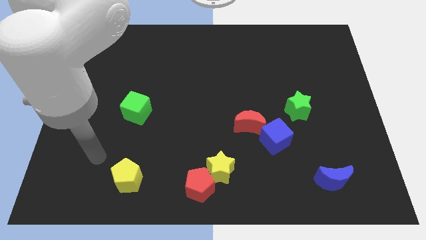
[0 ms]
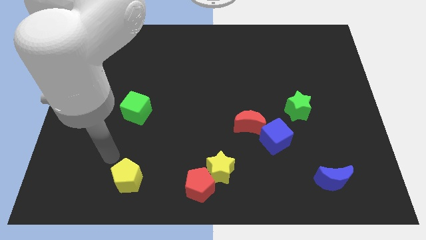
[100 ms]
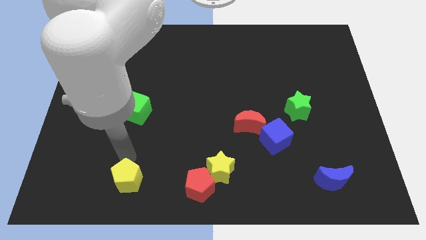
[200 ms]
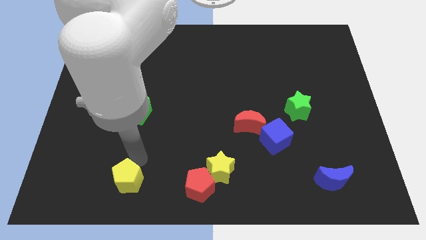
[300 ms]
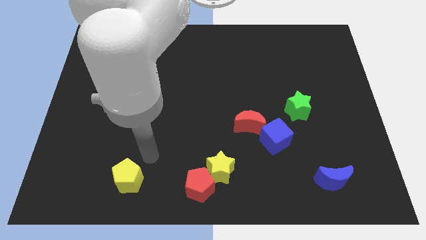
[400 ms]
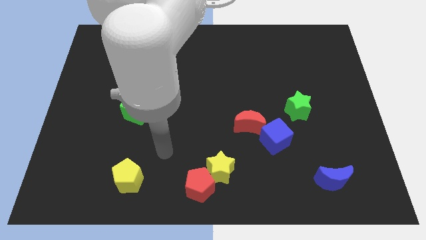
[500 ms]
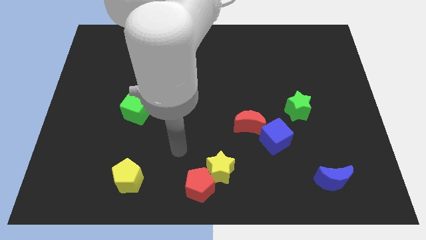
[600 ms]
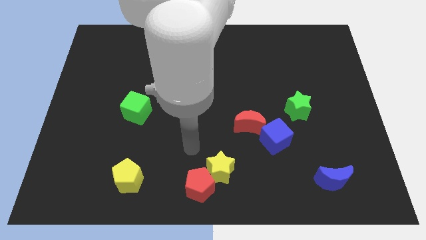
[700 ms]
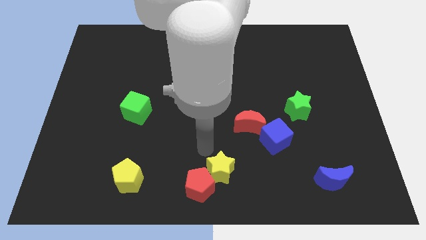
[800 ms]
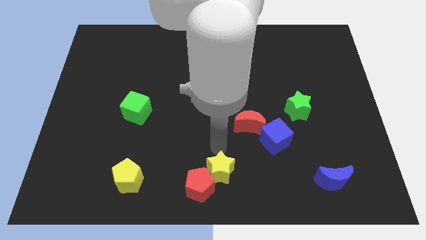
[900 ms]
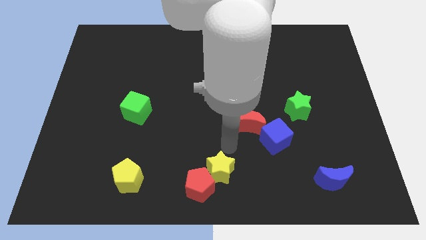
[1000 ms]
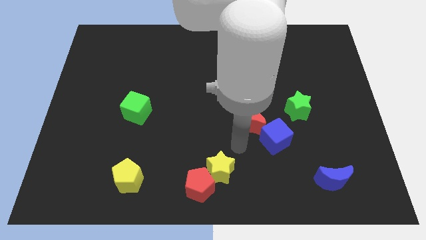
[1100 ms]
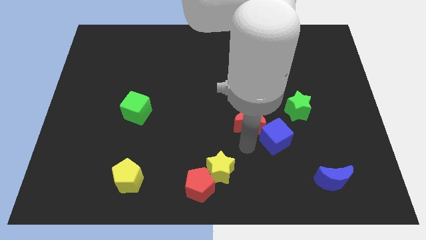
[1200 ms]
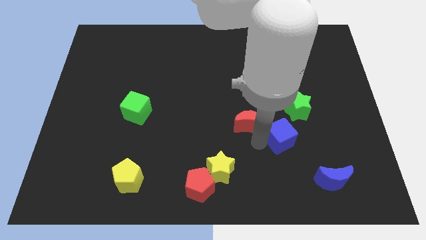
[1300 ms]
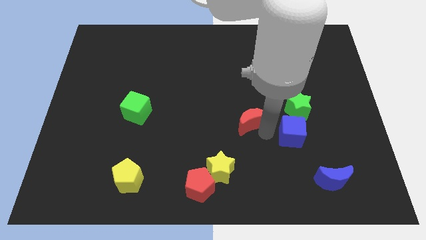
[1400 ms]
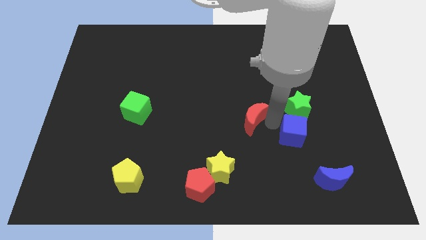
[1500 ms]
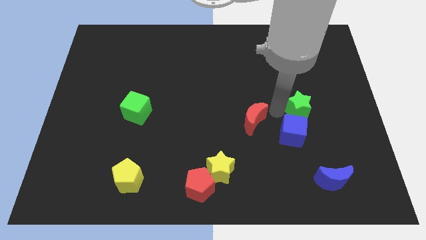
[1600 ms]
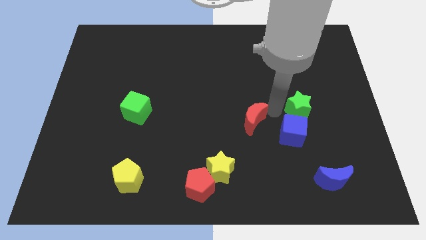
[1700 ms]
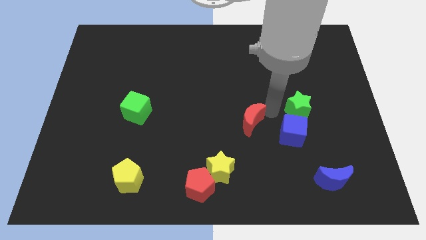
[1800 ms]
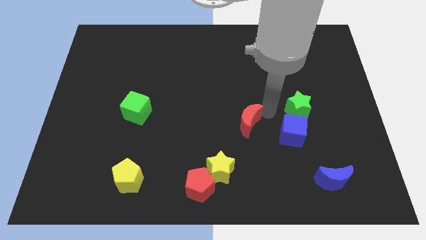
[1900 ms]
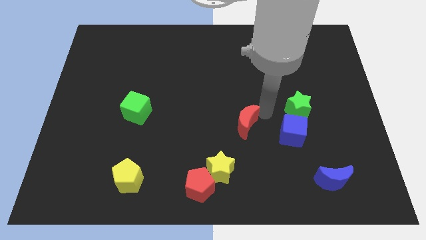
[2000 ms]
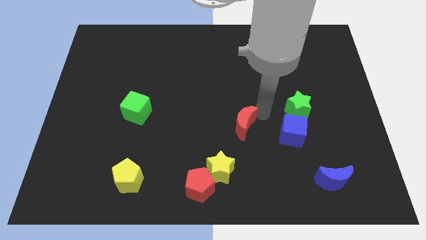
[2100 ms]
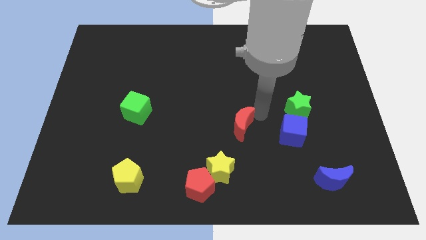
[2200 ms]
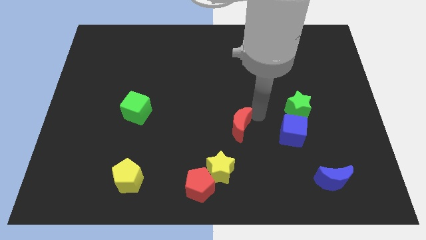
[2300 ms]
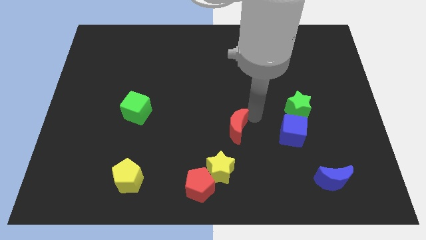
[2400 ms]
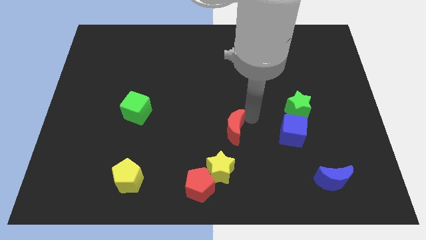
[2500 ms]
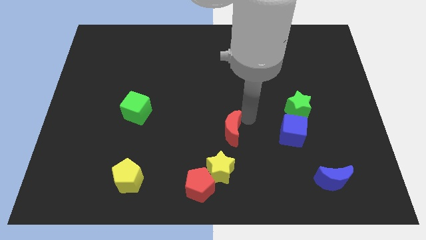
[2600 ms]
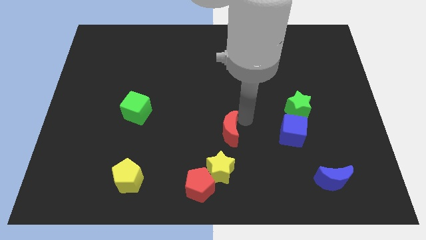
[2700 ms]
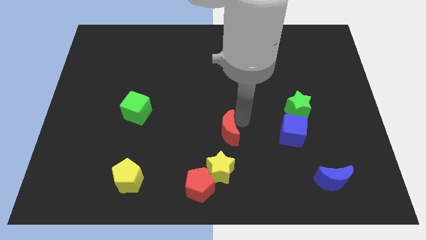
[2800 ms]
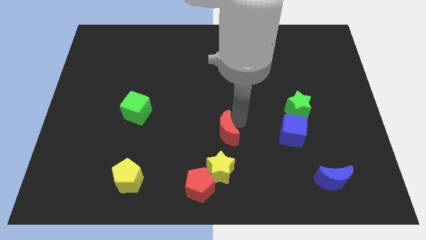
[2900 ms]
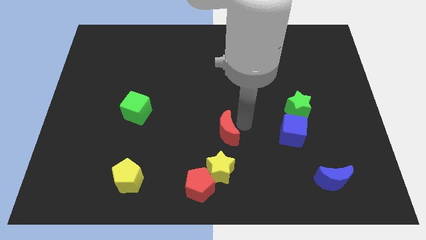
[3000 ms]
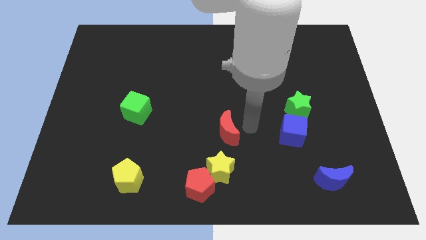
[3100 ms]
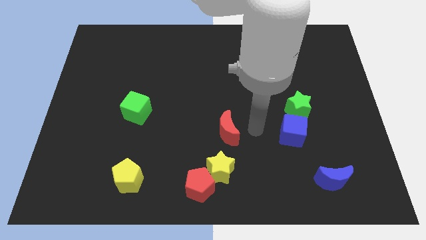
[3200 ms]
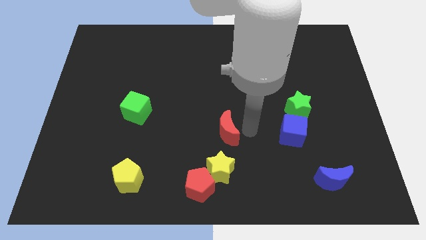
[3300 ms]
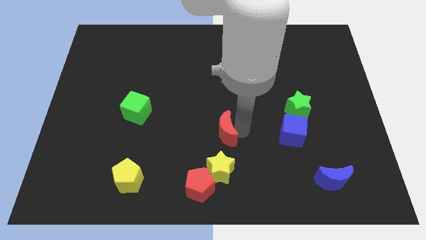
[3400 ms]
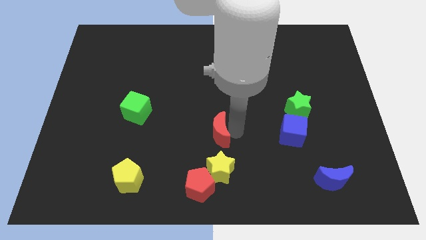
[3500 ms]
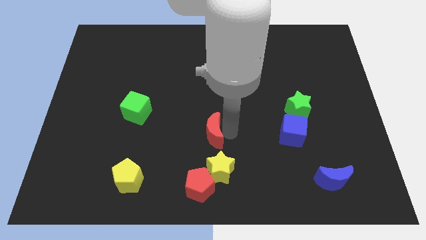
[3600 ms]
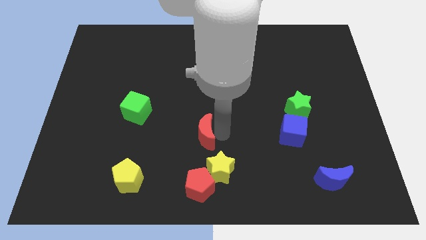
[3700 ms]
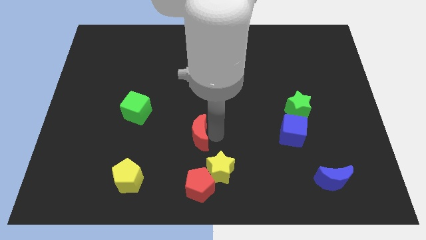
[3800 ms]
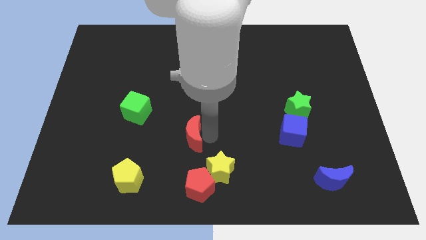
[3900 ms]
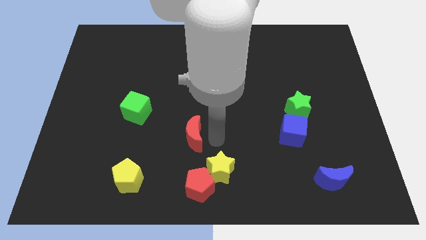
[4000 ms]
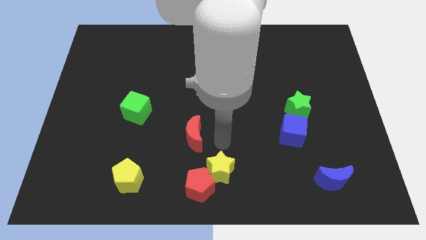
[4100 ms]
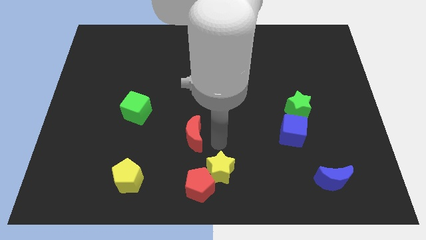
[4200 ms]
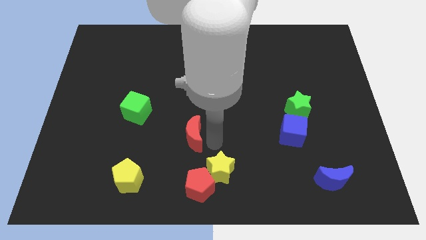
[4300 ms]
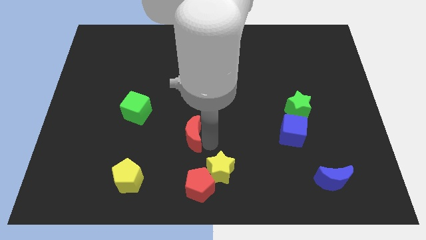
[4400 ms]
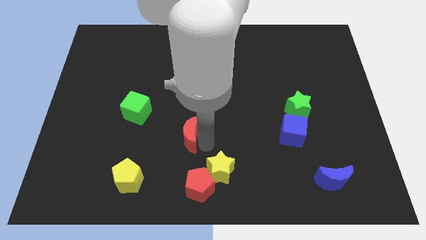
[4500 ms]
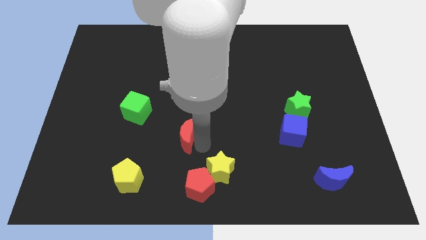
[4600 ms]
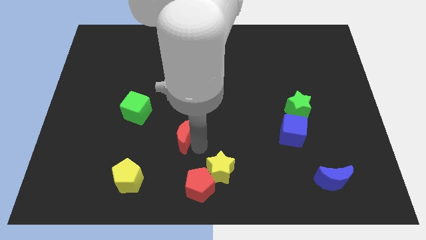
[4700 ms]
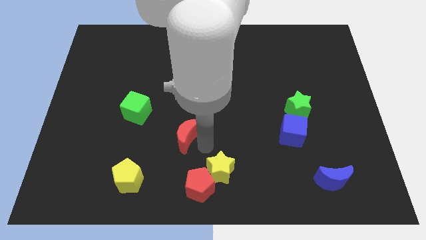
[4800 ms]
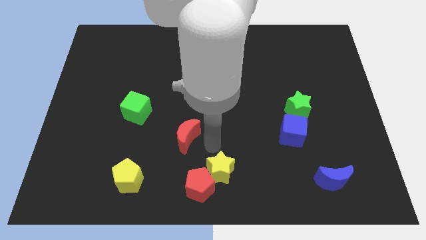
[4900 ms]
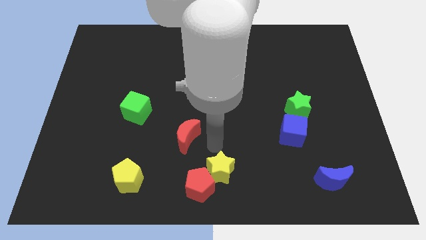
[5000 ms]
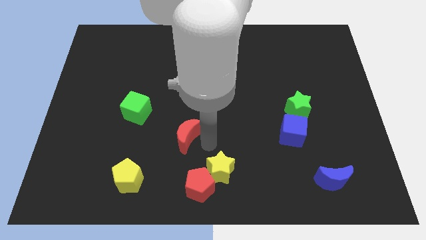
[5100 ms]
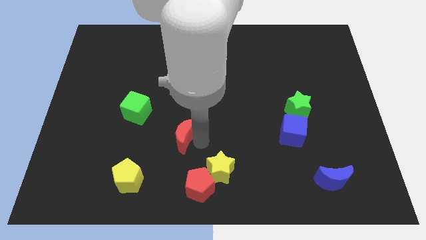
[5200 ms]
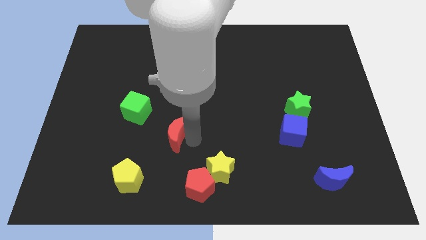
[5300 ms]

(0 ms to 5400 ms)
push the red moon to the bottom right side of the green cube

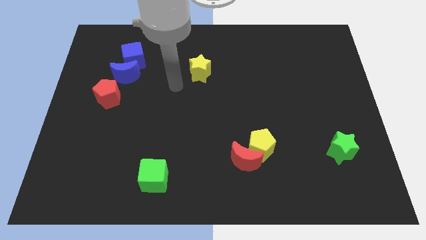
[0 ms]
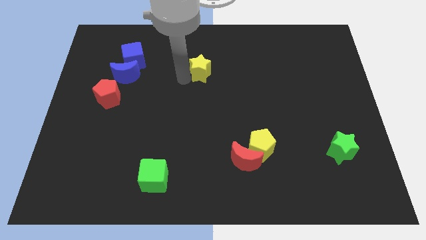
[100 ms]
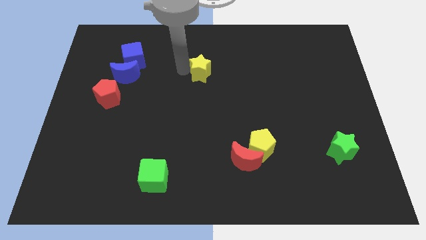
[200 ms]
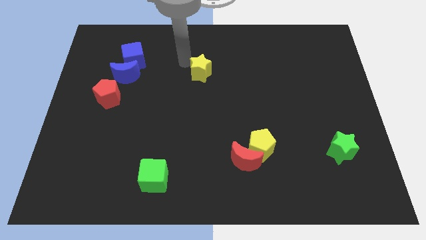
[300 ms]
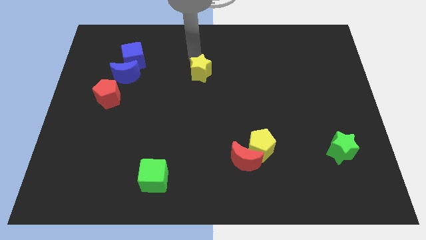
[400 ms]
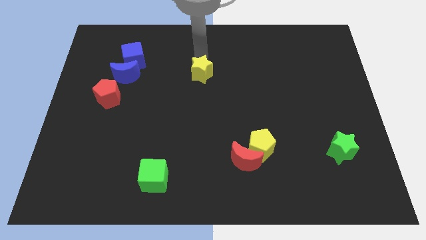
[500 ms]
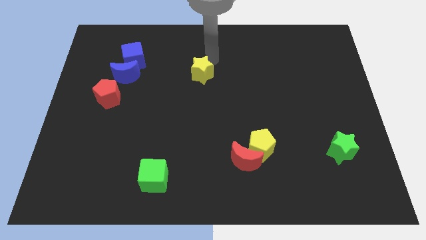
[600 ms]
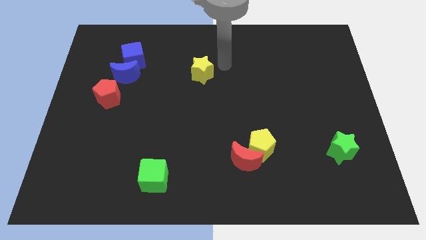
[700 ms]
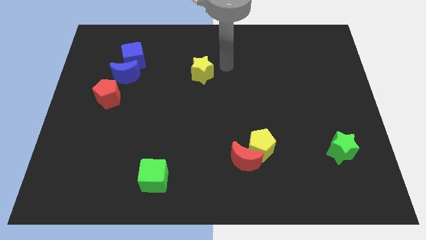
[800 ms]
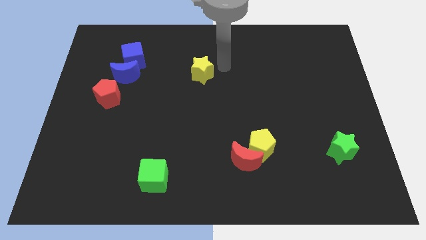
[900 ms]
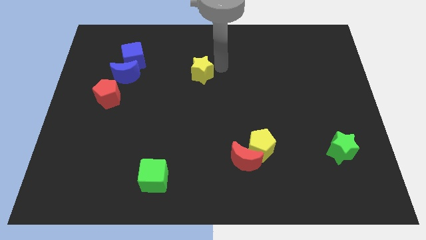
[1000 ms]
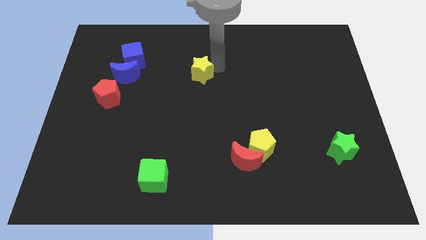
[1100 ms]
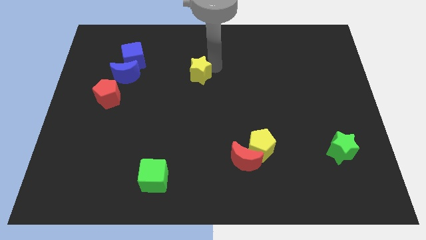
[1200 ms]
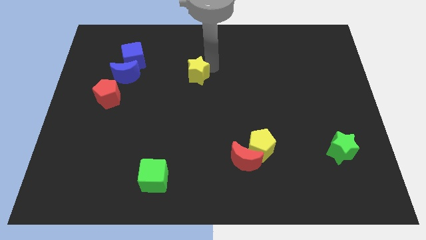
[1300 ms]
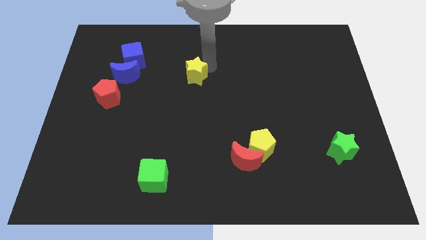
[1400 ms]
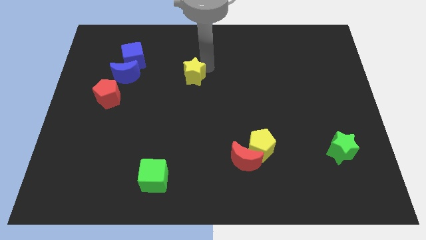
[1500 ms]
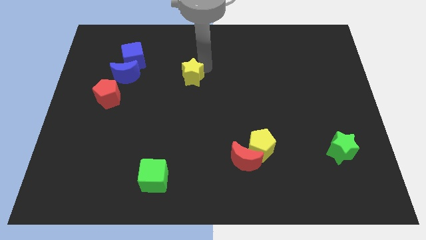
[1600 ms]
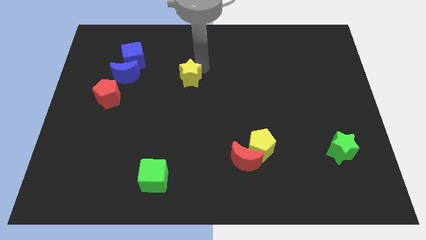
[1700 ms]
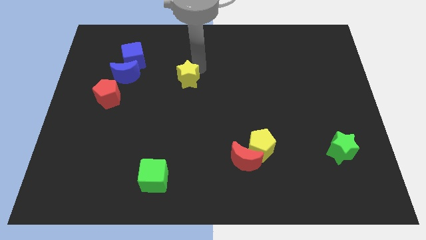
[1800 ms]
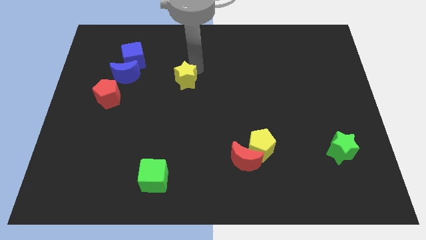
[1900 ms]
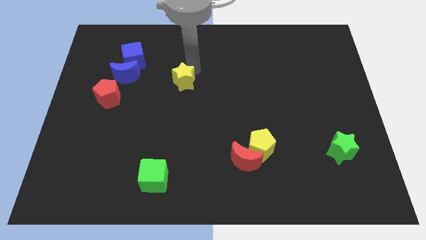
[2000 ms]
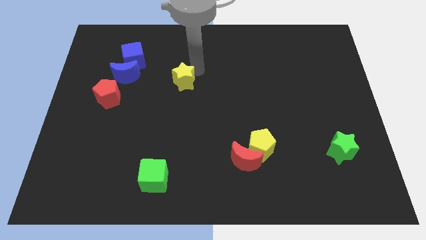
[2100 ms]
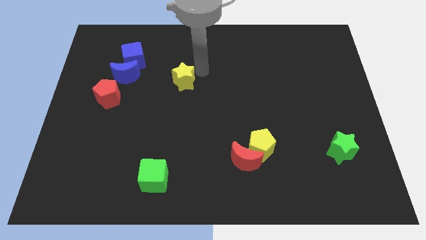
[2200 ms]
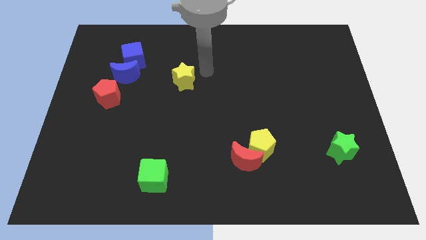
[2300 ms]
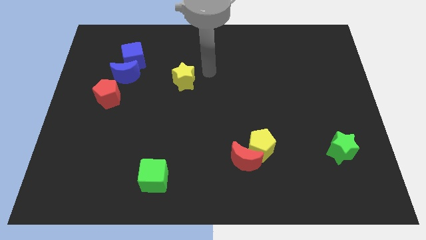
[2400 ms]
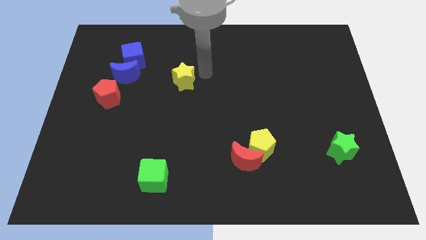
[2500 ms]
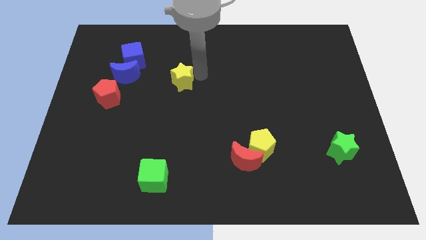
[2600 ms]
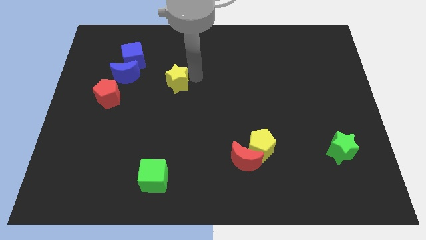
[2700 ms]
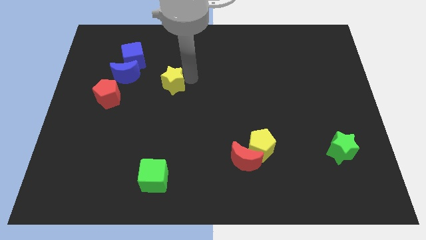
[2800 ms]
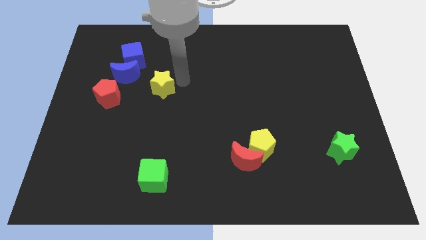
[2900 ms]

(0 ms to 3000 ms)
move the yellow star to the bottom right of the blue moon
